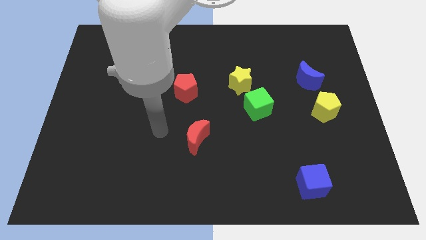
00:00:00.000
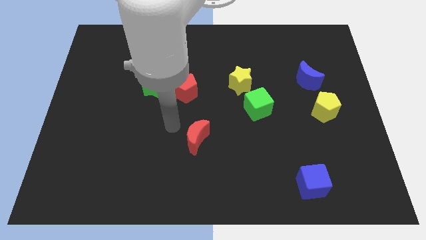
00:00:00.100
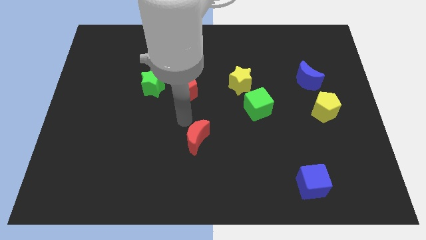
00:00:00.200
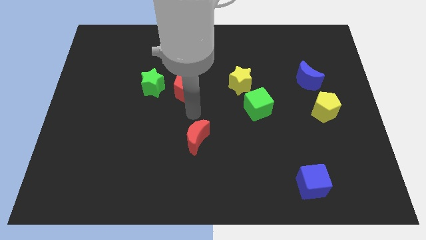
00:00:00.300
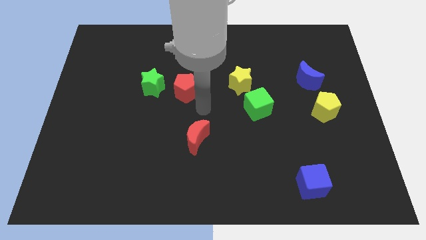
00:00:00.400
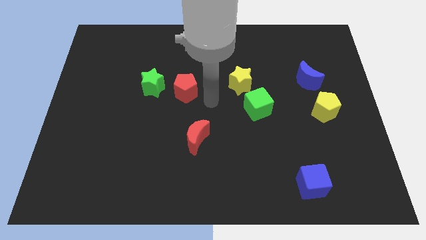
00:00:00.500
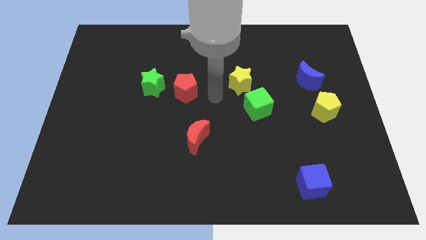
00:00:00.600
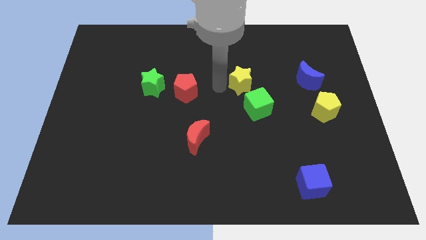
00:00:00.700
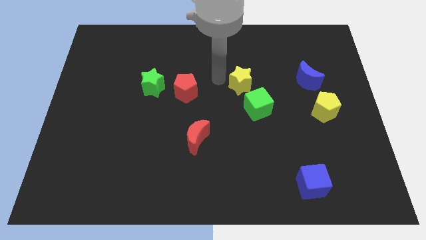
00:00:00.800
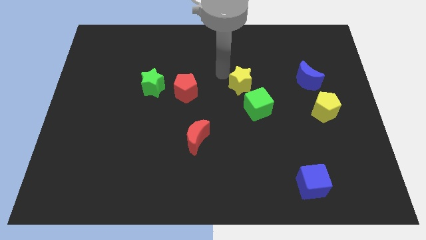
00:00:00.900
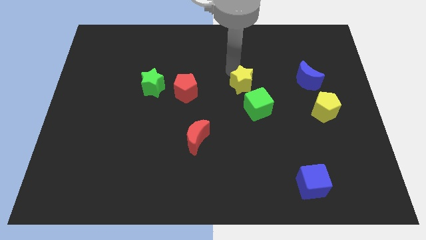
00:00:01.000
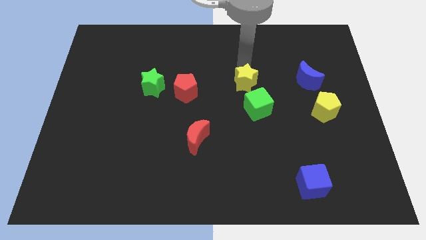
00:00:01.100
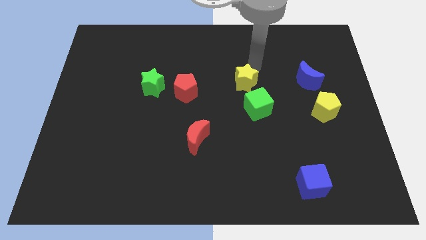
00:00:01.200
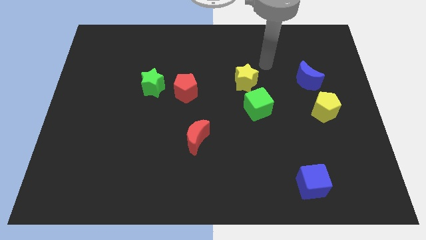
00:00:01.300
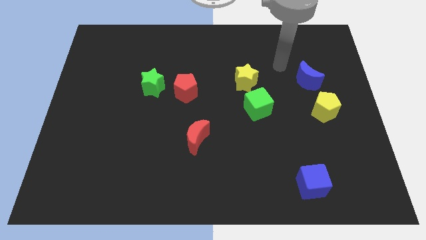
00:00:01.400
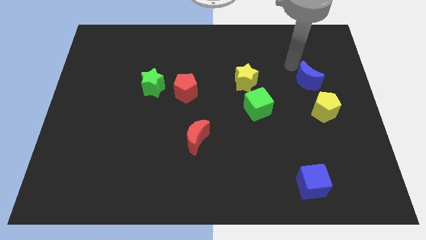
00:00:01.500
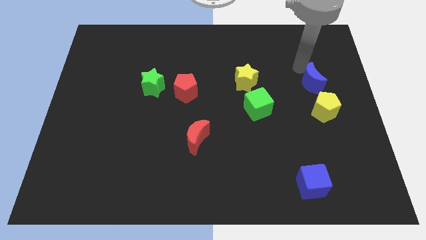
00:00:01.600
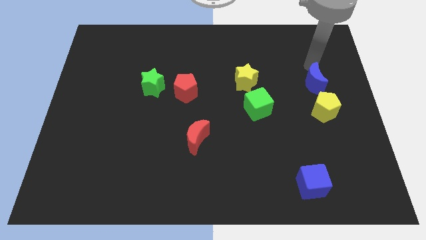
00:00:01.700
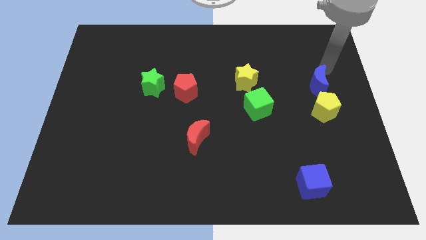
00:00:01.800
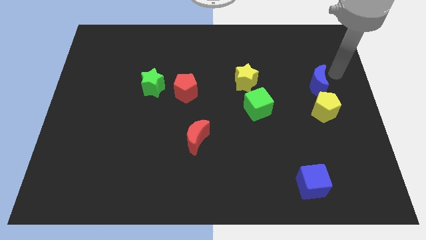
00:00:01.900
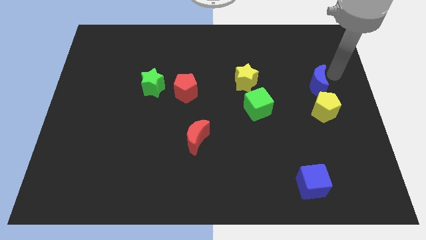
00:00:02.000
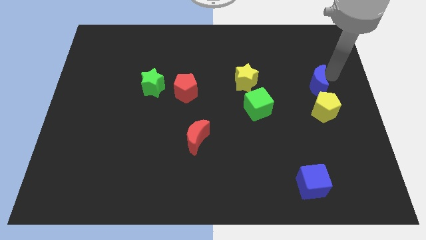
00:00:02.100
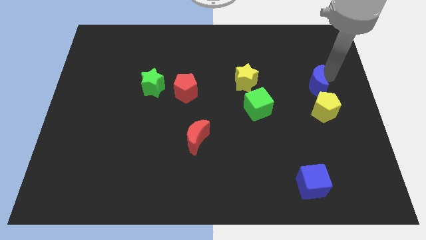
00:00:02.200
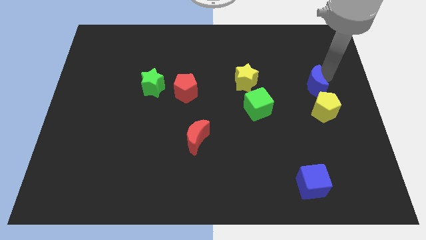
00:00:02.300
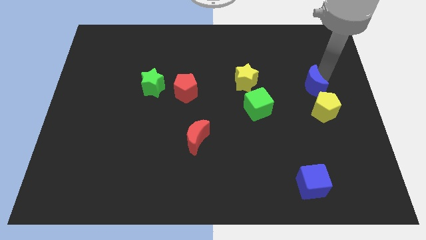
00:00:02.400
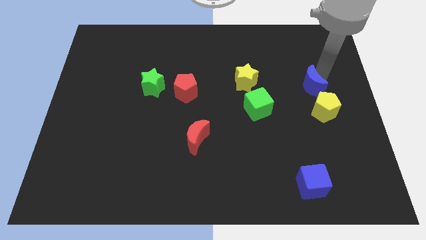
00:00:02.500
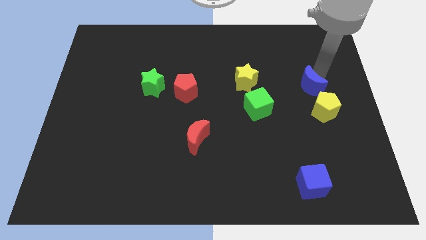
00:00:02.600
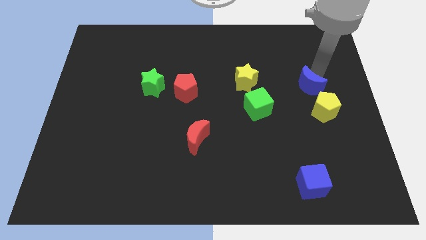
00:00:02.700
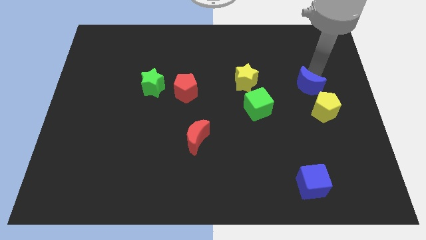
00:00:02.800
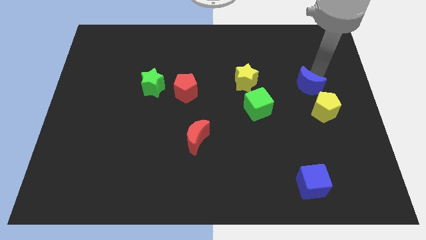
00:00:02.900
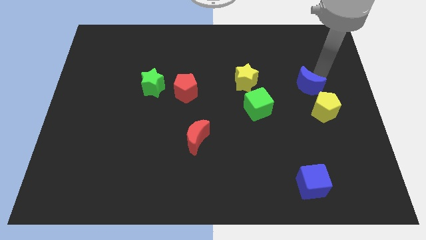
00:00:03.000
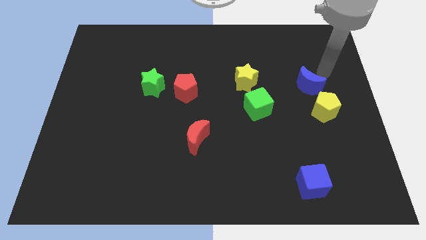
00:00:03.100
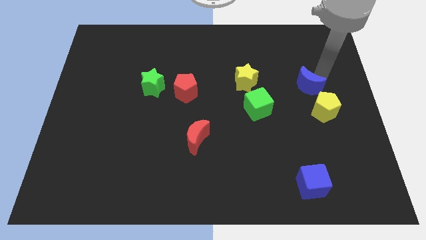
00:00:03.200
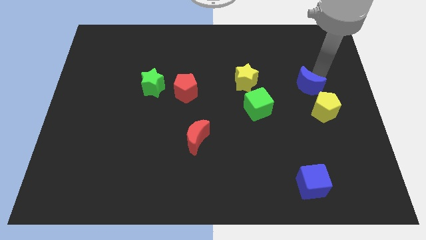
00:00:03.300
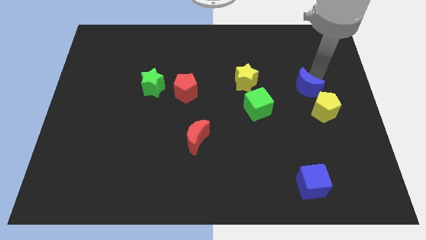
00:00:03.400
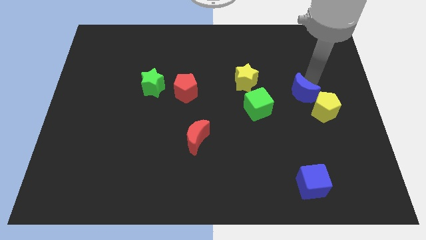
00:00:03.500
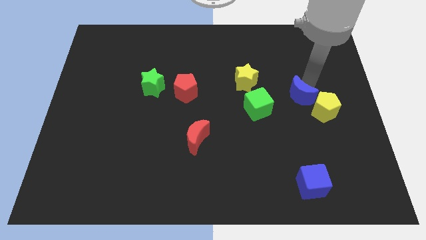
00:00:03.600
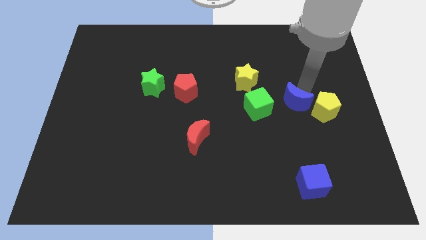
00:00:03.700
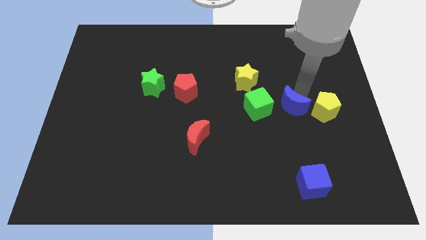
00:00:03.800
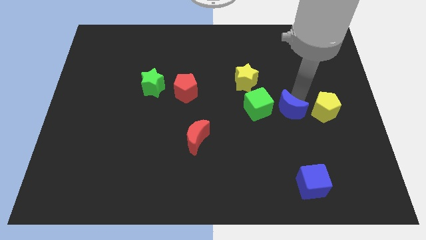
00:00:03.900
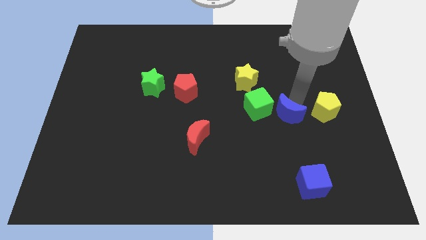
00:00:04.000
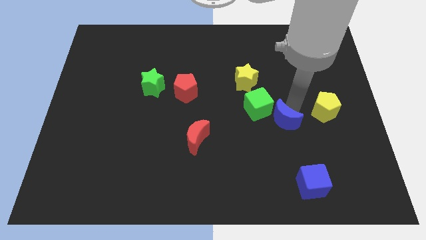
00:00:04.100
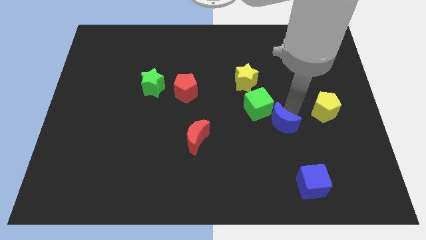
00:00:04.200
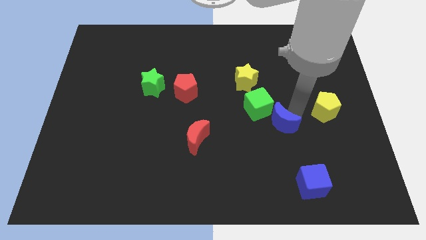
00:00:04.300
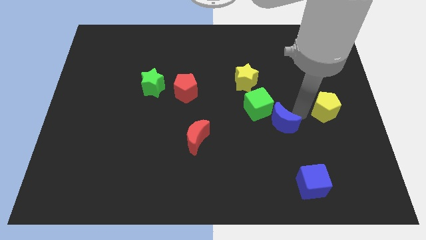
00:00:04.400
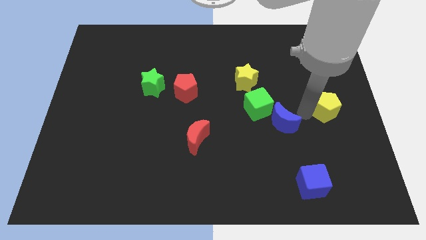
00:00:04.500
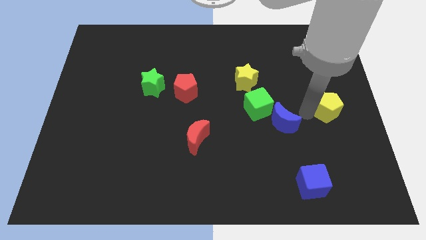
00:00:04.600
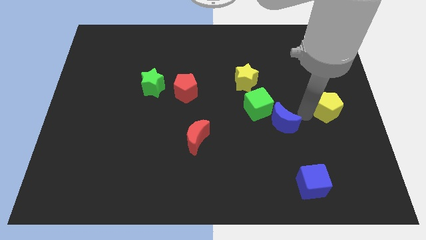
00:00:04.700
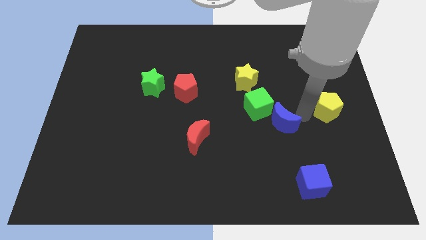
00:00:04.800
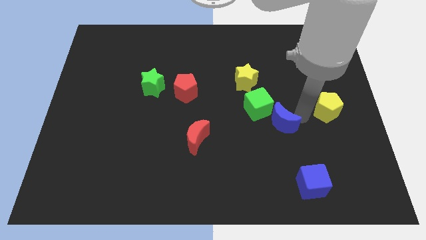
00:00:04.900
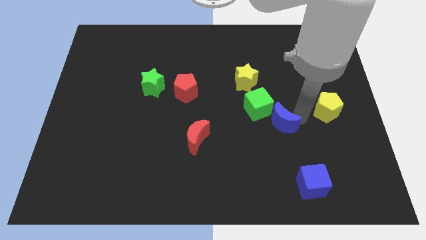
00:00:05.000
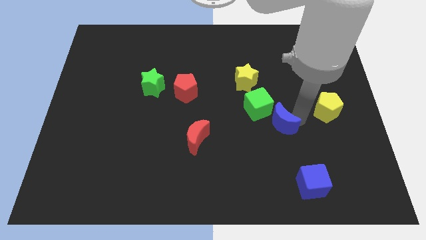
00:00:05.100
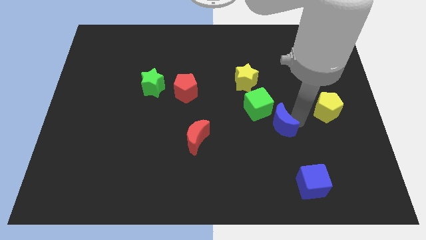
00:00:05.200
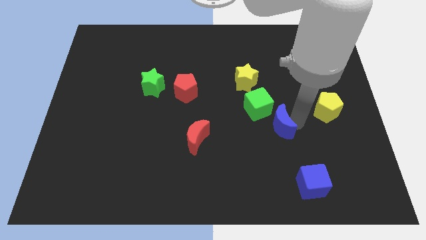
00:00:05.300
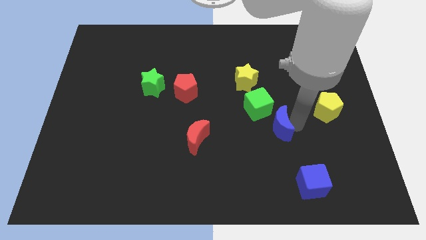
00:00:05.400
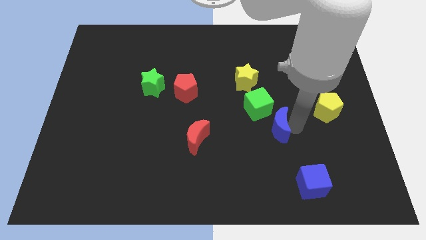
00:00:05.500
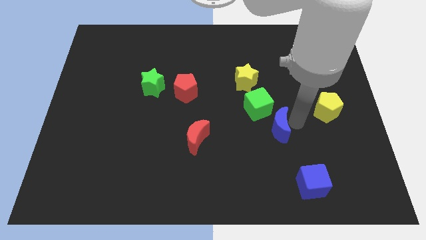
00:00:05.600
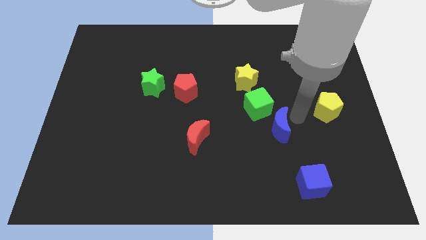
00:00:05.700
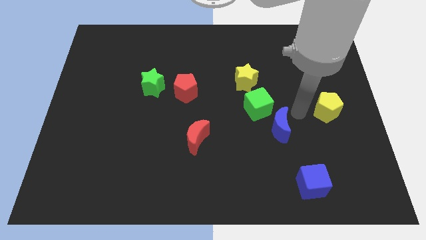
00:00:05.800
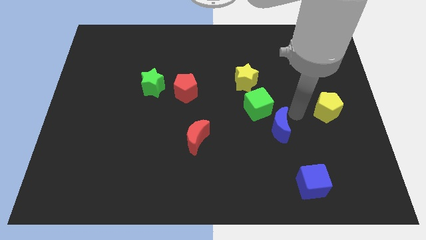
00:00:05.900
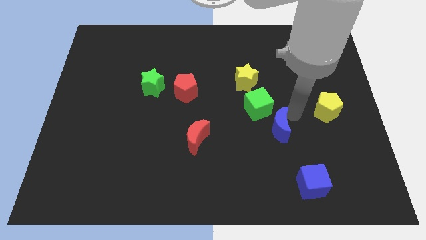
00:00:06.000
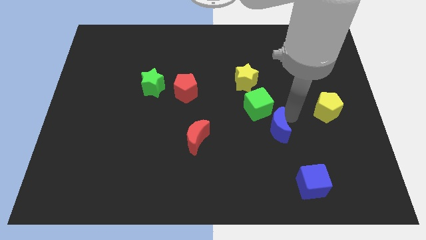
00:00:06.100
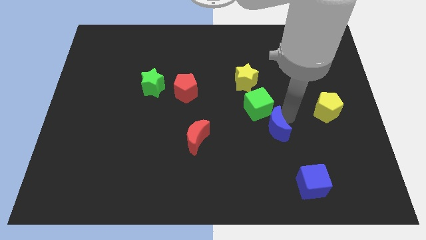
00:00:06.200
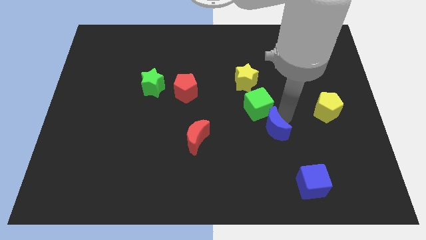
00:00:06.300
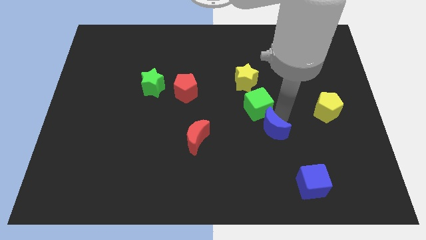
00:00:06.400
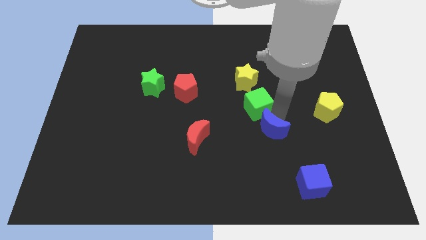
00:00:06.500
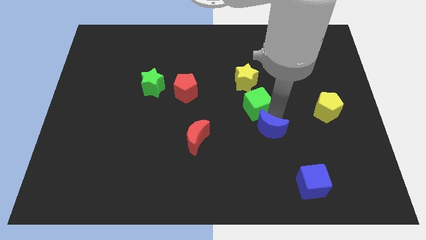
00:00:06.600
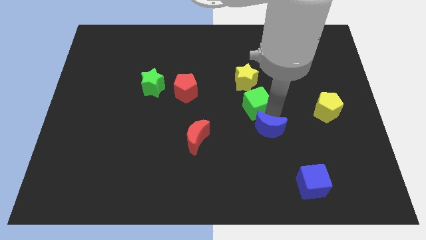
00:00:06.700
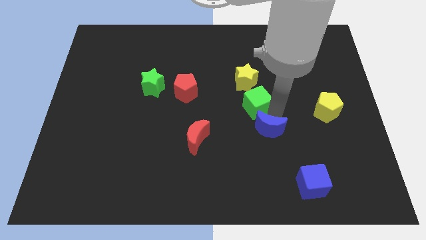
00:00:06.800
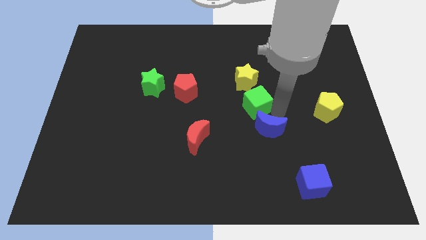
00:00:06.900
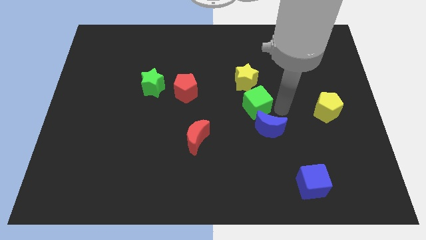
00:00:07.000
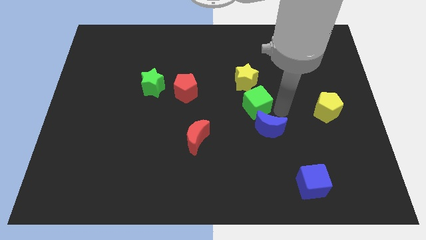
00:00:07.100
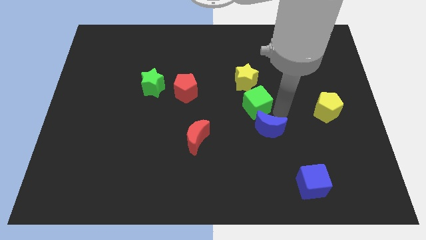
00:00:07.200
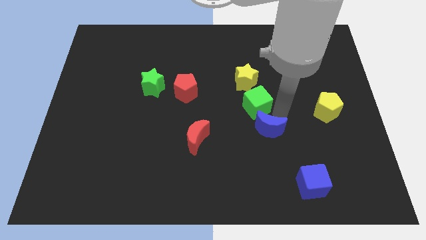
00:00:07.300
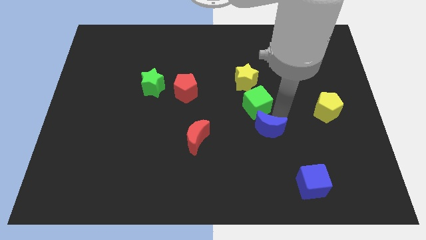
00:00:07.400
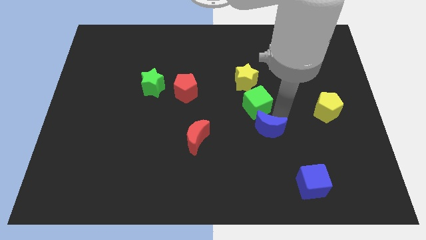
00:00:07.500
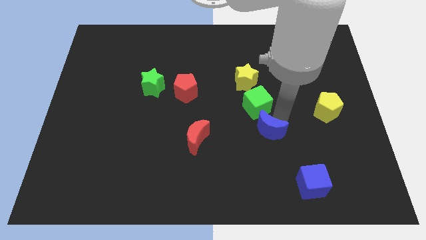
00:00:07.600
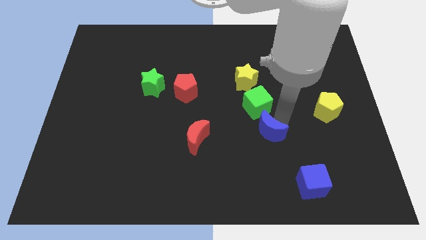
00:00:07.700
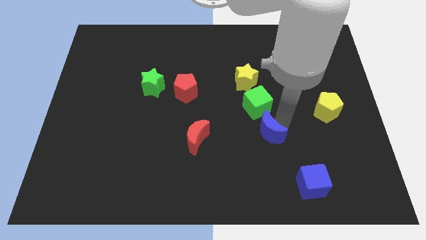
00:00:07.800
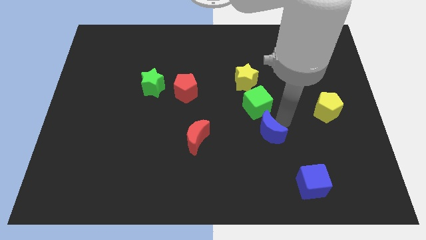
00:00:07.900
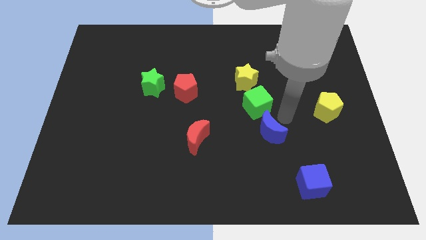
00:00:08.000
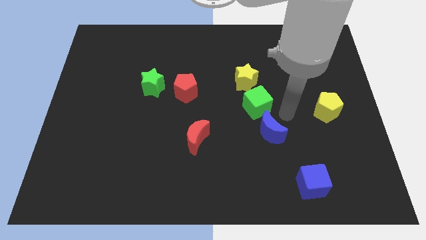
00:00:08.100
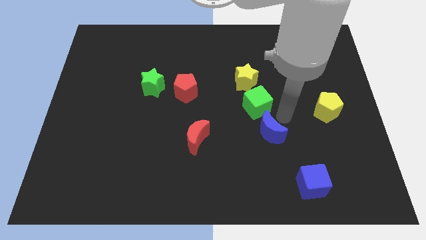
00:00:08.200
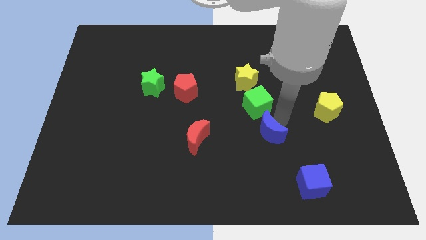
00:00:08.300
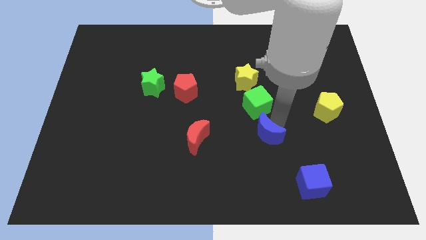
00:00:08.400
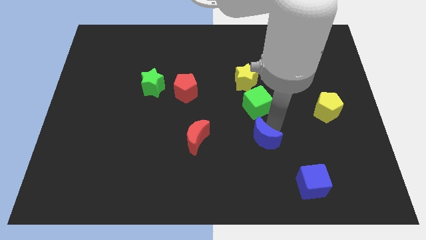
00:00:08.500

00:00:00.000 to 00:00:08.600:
move the blue moon diagonally downwards and left
